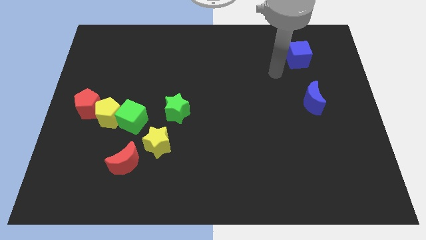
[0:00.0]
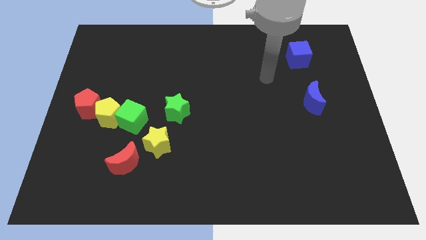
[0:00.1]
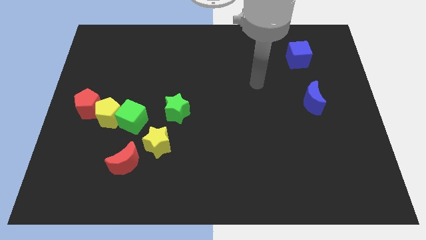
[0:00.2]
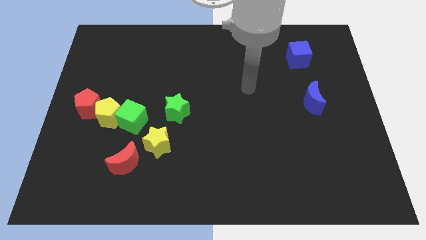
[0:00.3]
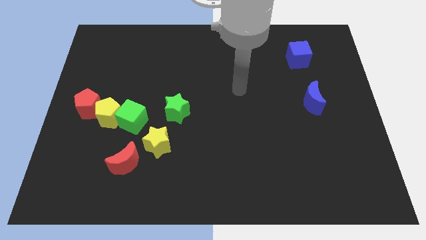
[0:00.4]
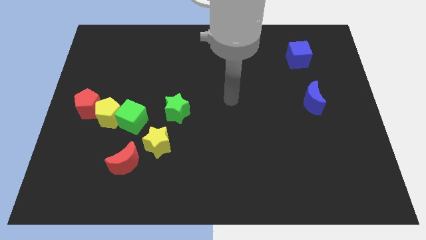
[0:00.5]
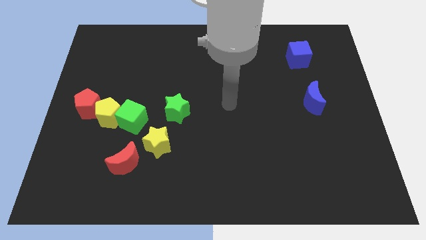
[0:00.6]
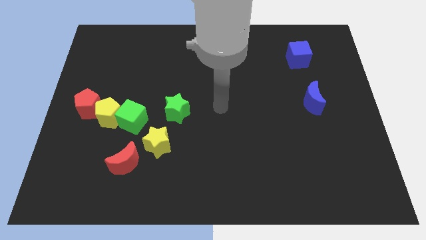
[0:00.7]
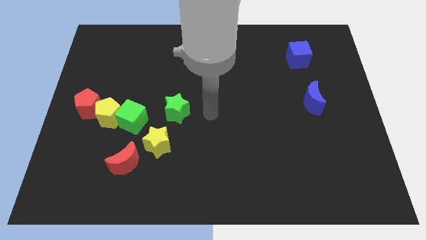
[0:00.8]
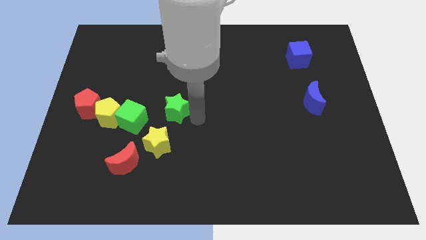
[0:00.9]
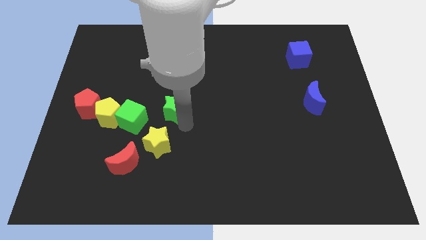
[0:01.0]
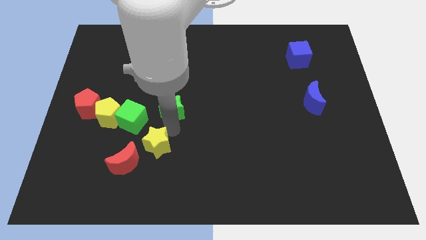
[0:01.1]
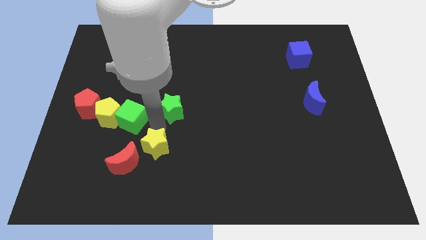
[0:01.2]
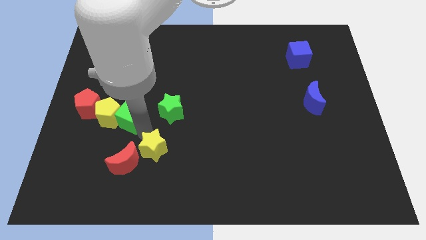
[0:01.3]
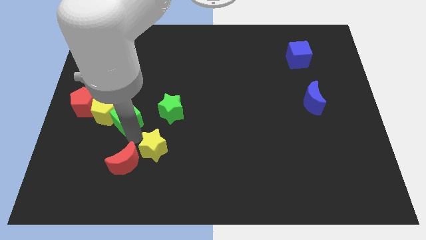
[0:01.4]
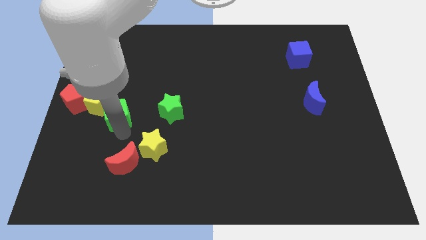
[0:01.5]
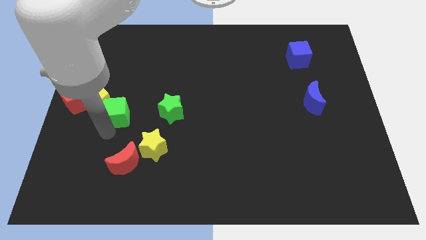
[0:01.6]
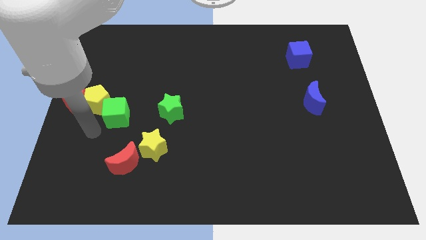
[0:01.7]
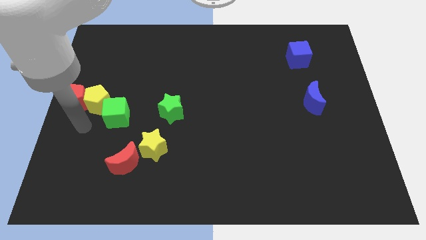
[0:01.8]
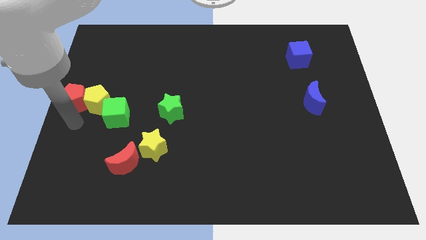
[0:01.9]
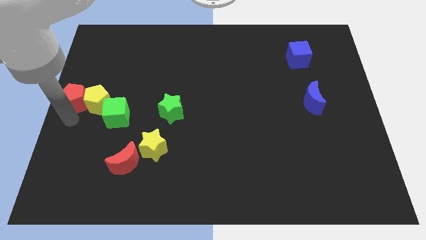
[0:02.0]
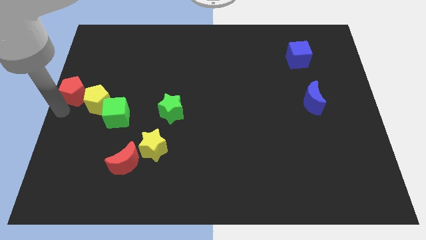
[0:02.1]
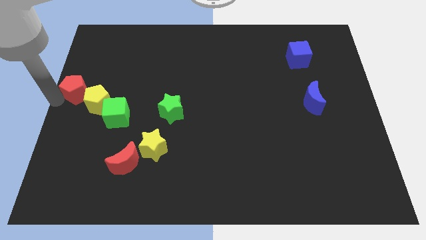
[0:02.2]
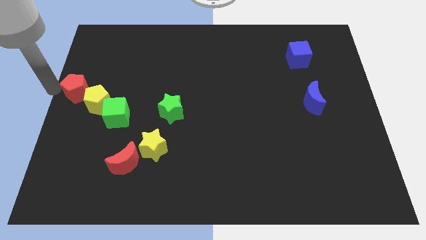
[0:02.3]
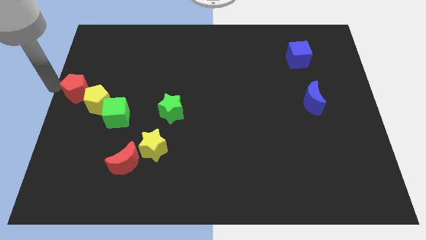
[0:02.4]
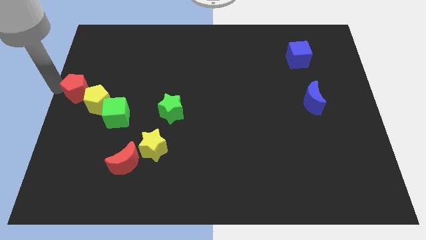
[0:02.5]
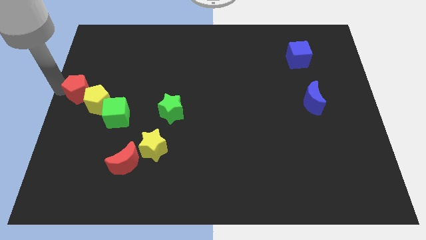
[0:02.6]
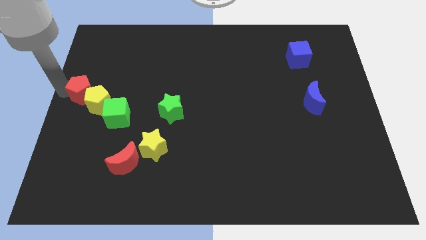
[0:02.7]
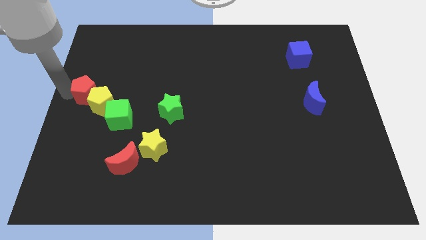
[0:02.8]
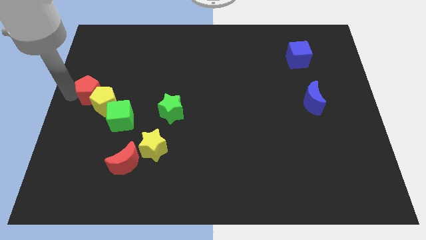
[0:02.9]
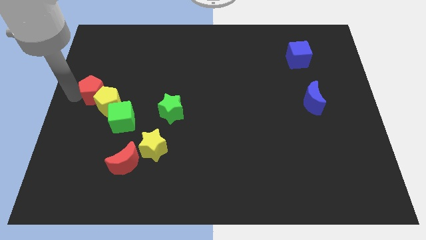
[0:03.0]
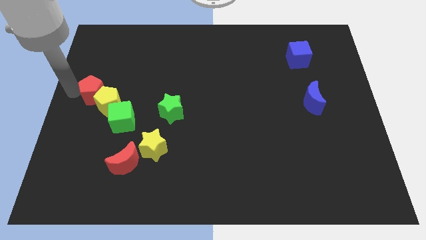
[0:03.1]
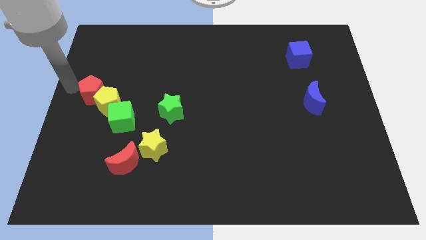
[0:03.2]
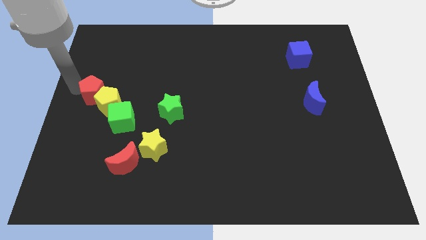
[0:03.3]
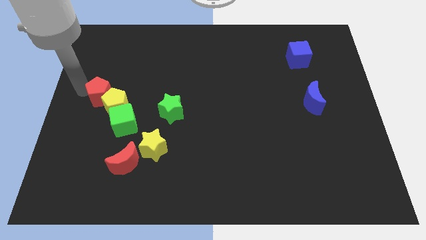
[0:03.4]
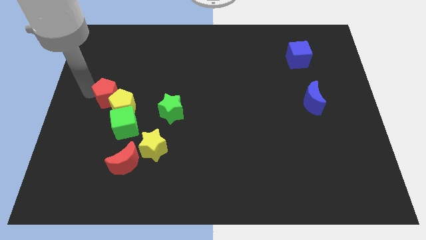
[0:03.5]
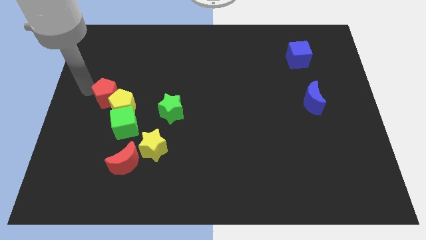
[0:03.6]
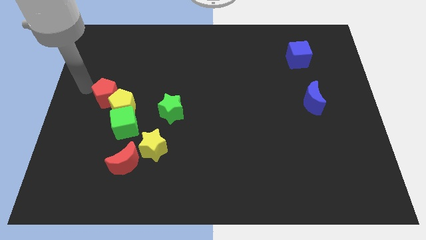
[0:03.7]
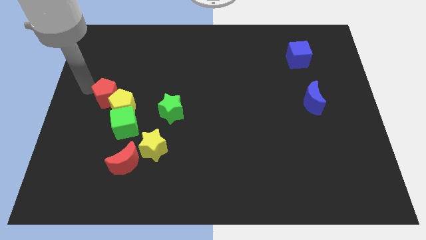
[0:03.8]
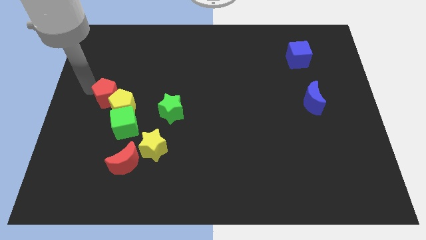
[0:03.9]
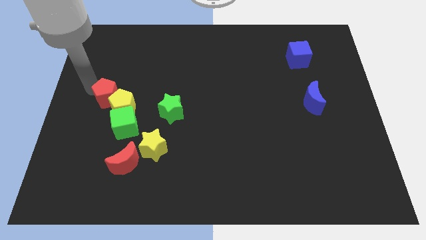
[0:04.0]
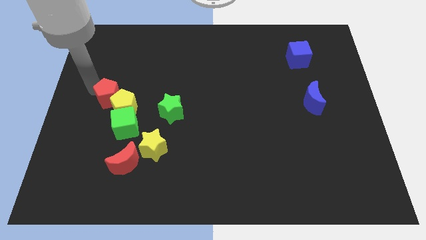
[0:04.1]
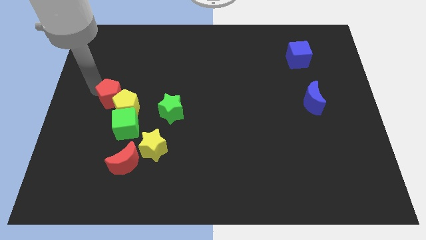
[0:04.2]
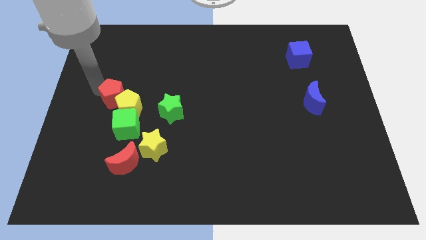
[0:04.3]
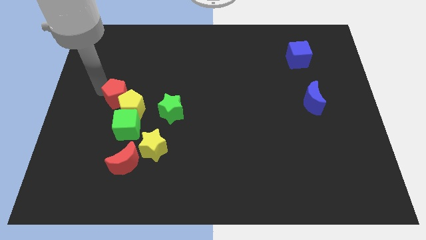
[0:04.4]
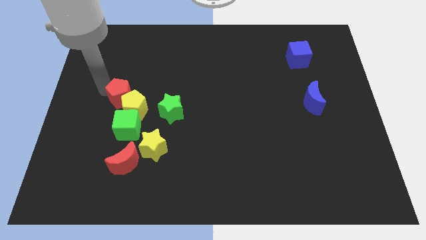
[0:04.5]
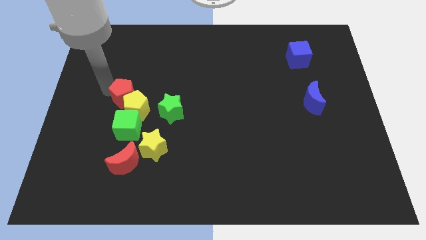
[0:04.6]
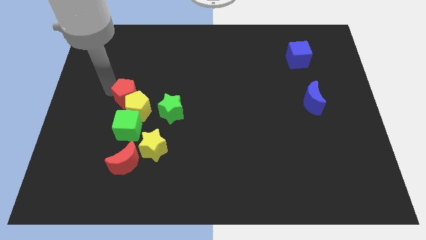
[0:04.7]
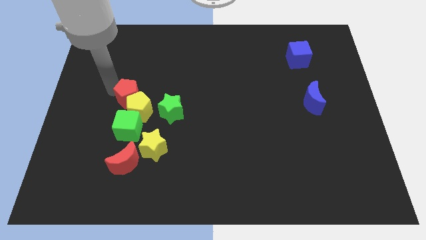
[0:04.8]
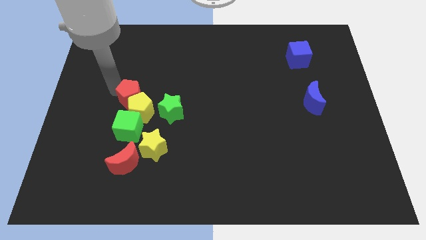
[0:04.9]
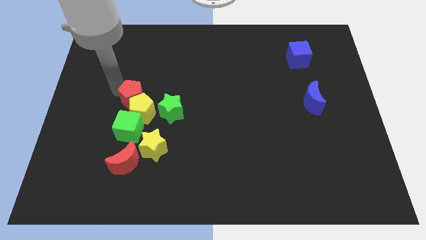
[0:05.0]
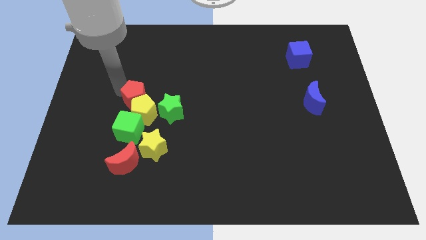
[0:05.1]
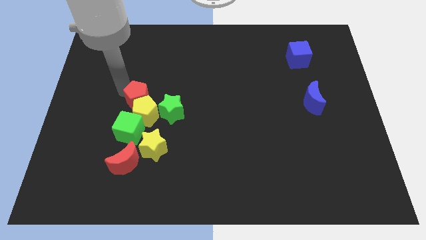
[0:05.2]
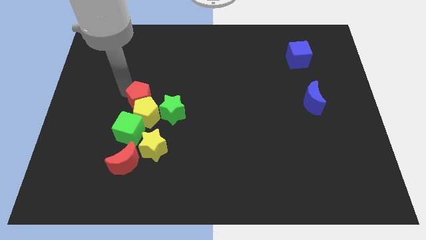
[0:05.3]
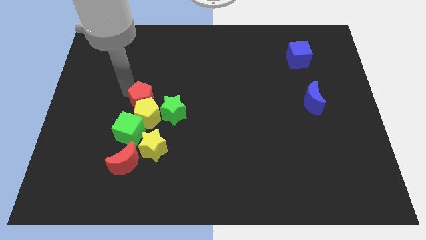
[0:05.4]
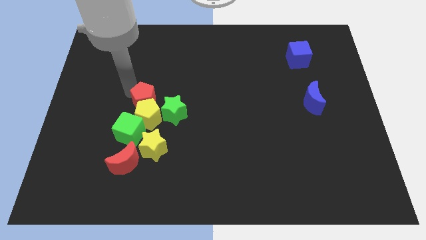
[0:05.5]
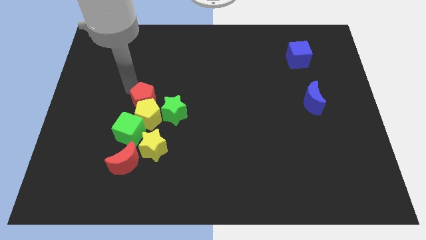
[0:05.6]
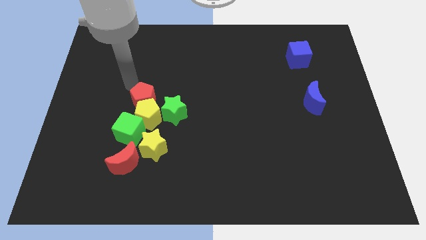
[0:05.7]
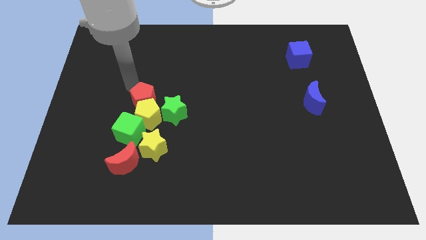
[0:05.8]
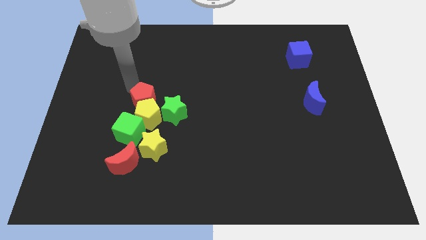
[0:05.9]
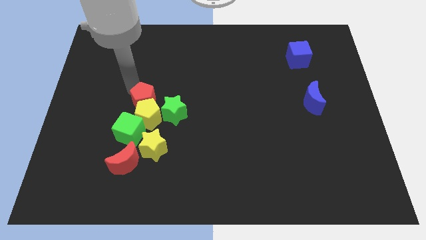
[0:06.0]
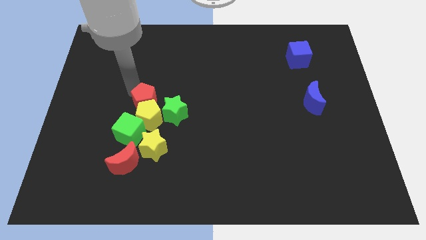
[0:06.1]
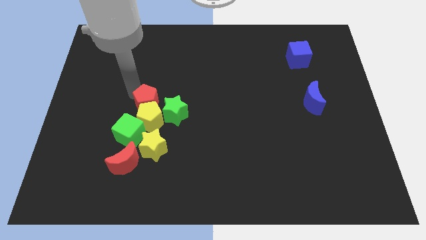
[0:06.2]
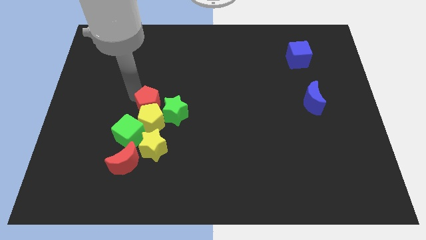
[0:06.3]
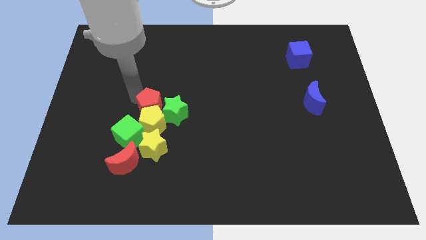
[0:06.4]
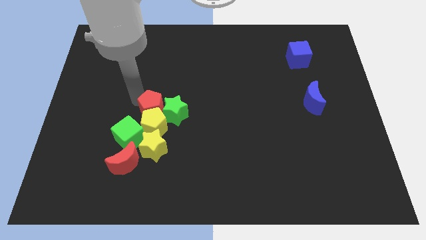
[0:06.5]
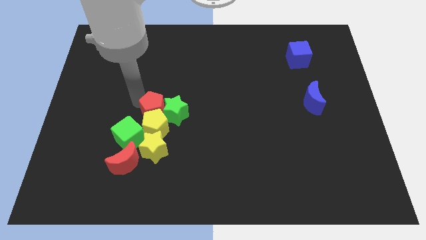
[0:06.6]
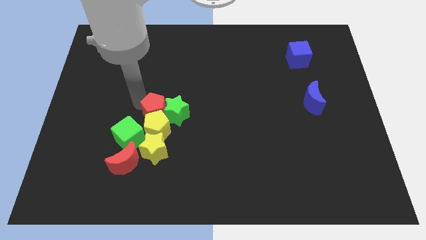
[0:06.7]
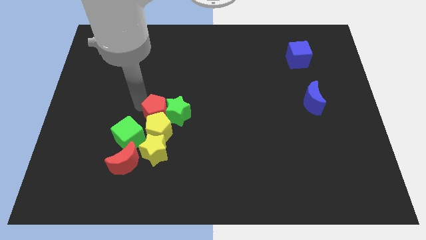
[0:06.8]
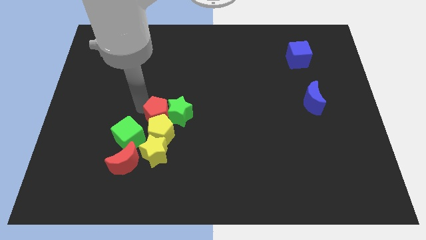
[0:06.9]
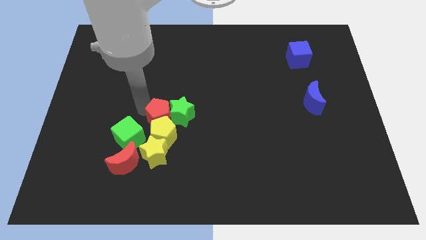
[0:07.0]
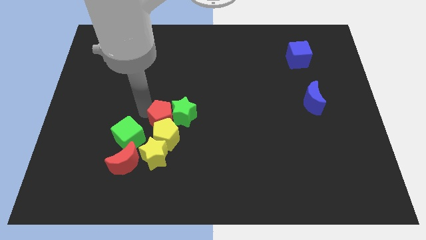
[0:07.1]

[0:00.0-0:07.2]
put the red pentagon to the right of the green cube

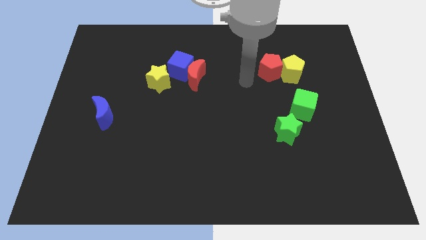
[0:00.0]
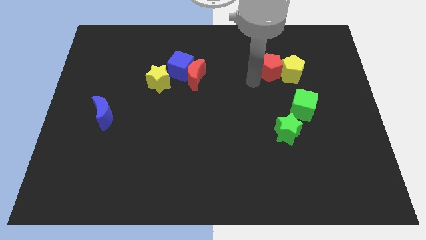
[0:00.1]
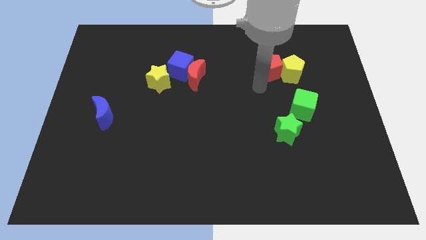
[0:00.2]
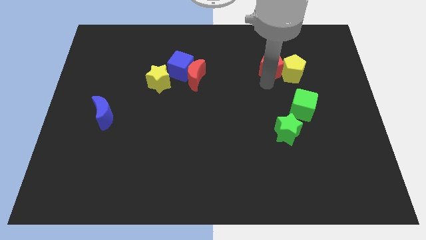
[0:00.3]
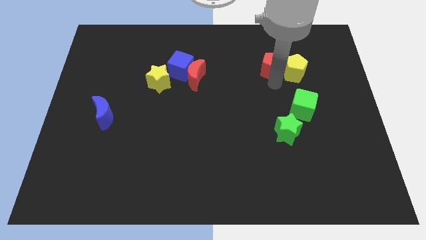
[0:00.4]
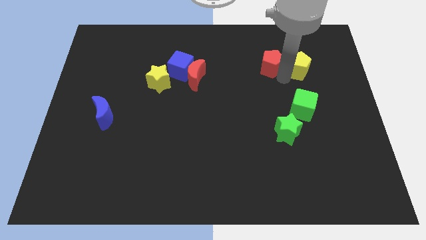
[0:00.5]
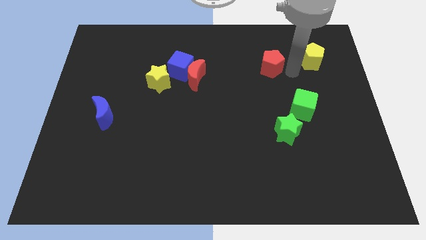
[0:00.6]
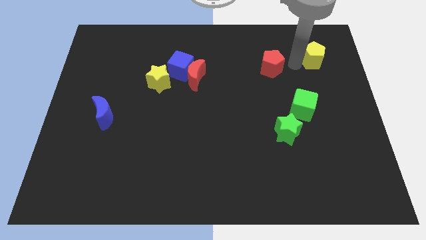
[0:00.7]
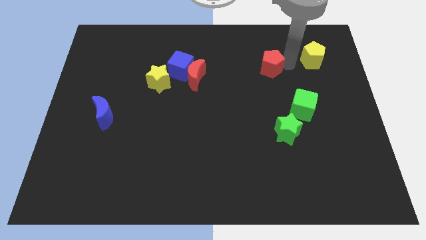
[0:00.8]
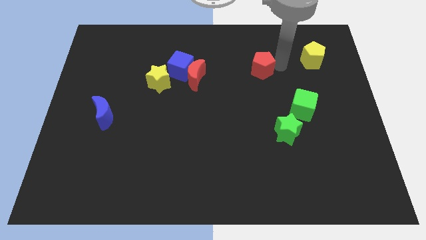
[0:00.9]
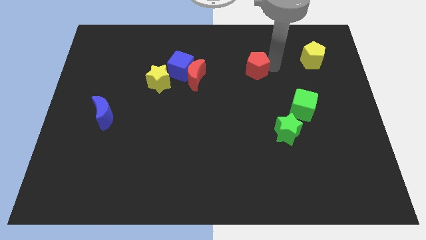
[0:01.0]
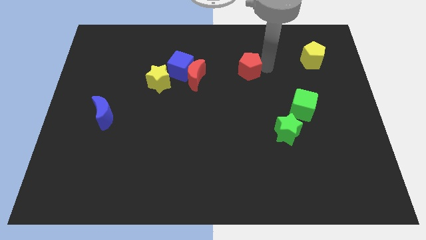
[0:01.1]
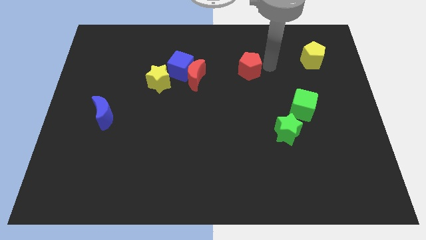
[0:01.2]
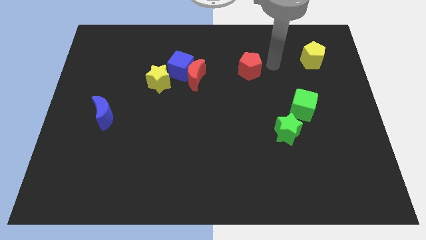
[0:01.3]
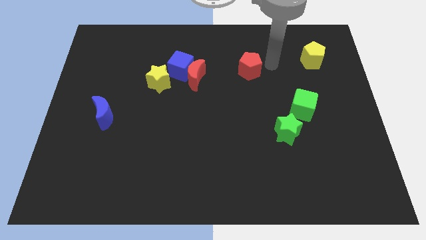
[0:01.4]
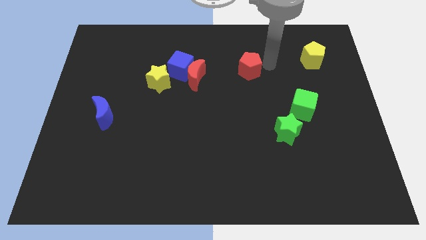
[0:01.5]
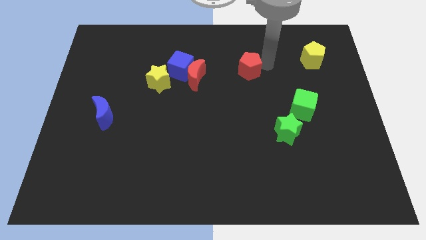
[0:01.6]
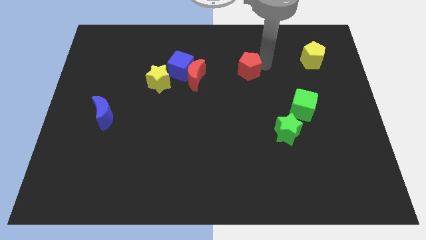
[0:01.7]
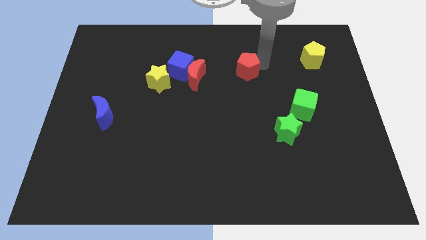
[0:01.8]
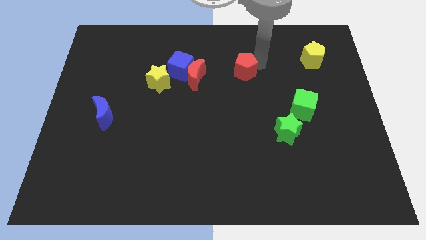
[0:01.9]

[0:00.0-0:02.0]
put the red pentagon to the right side of the blue cube
